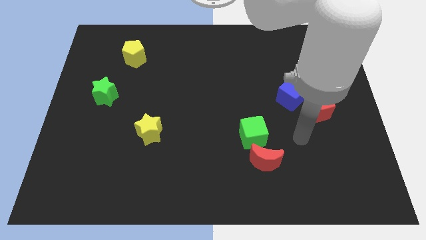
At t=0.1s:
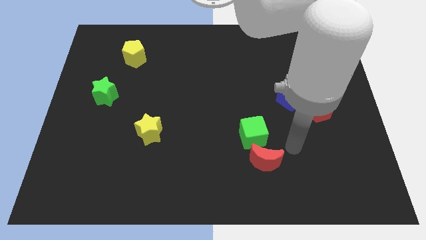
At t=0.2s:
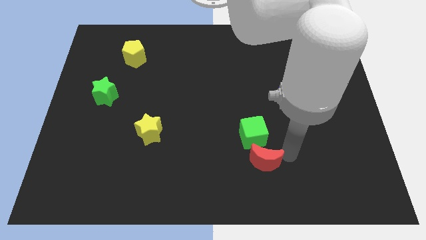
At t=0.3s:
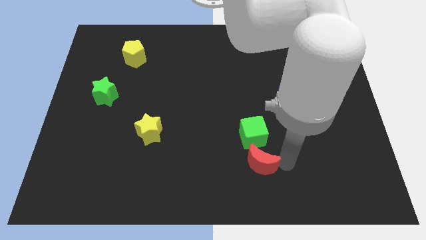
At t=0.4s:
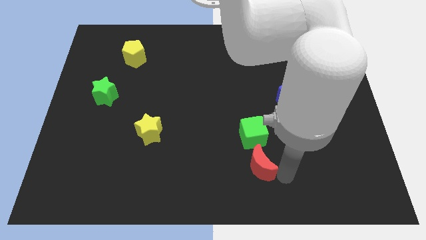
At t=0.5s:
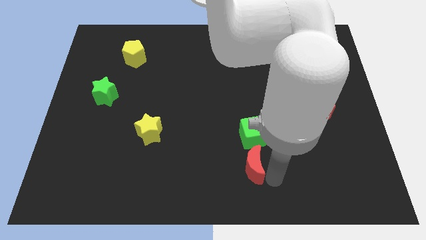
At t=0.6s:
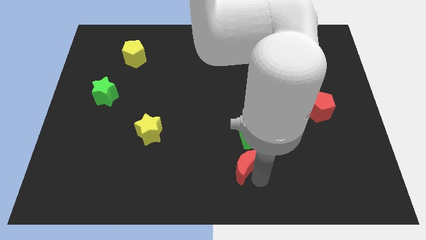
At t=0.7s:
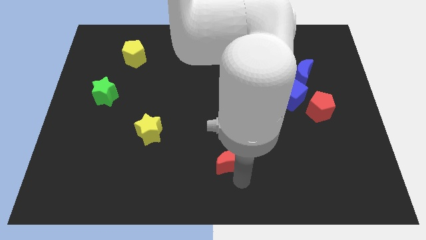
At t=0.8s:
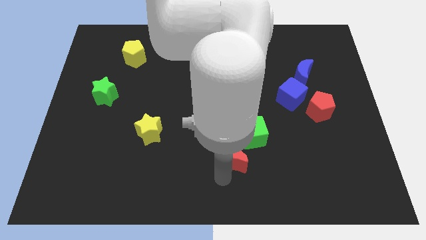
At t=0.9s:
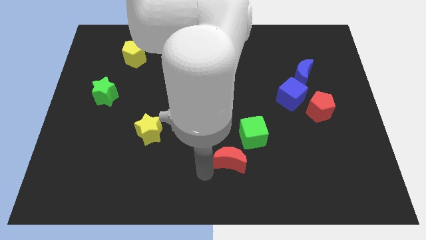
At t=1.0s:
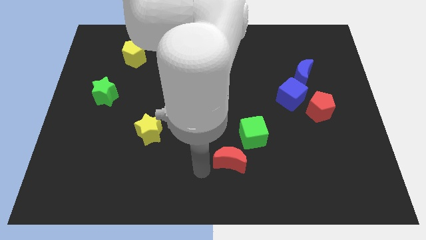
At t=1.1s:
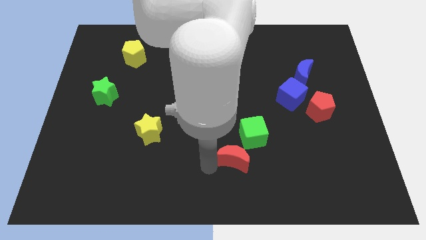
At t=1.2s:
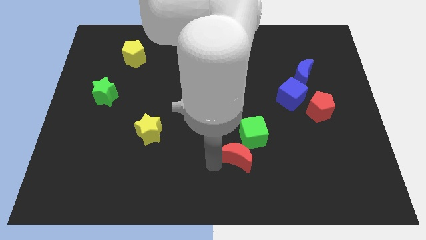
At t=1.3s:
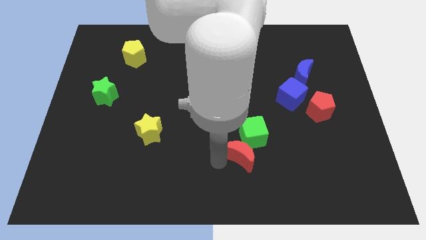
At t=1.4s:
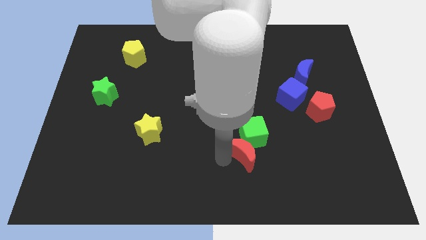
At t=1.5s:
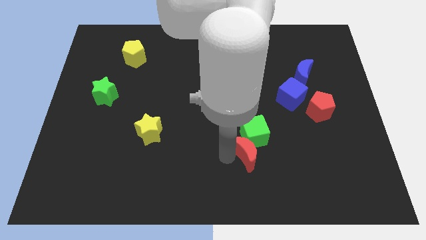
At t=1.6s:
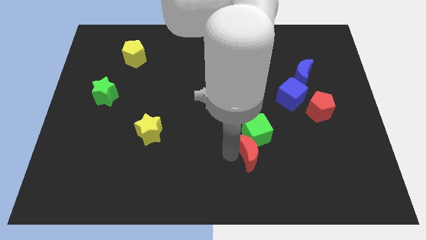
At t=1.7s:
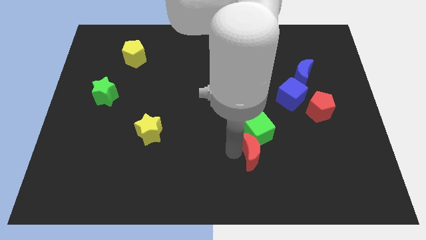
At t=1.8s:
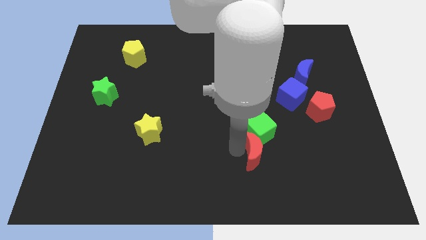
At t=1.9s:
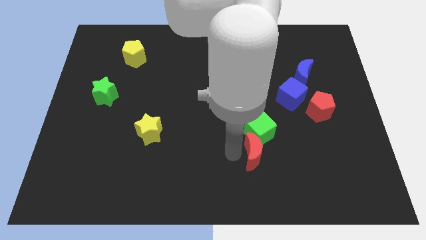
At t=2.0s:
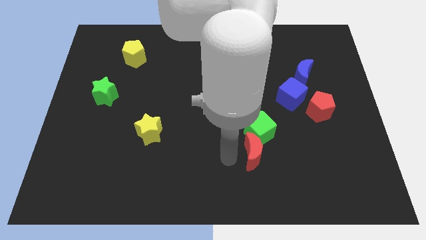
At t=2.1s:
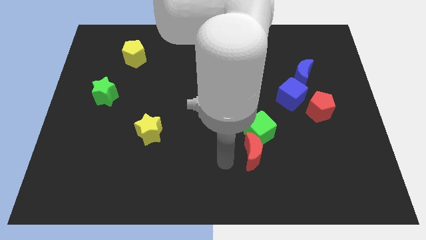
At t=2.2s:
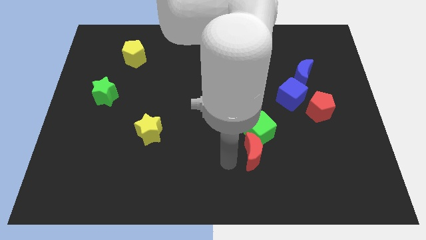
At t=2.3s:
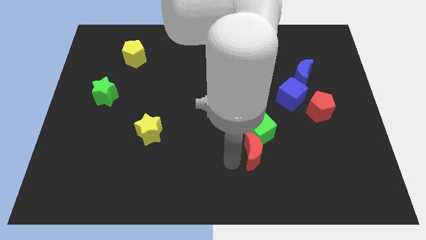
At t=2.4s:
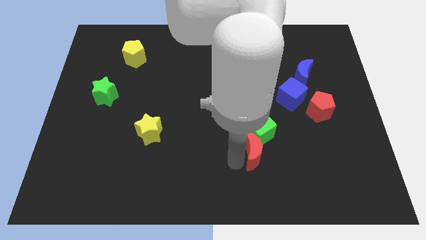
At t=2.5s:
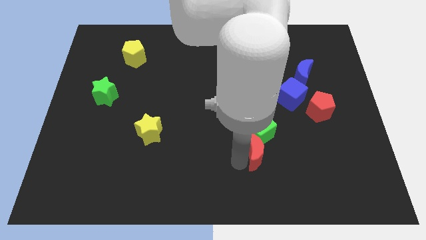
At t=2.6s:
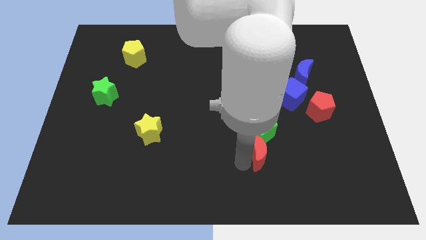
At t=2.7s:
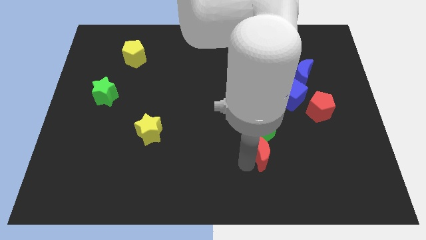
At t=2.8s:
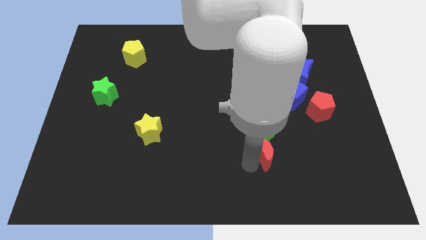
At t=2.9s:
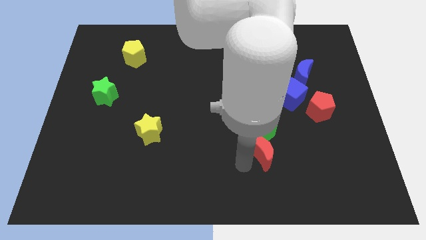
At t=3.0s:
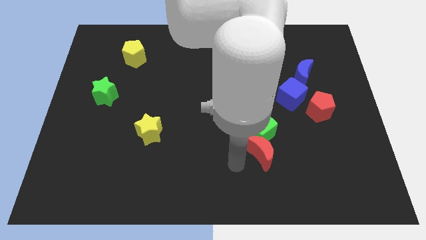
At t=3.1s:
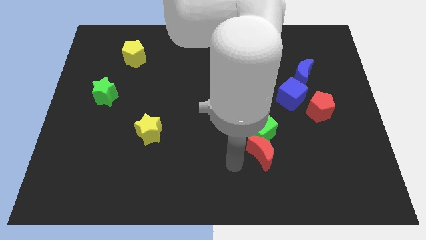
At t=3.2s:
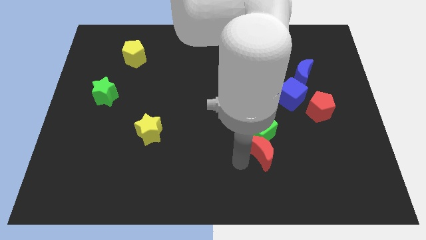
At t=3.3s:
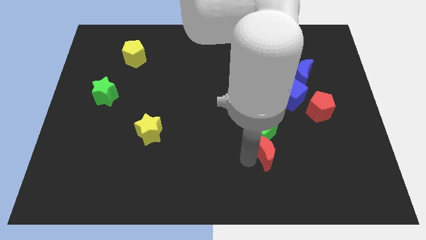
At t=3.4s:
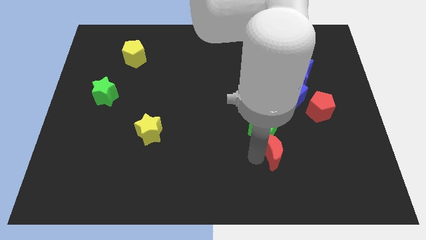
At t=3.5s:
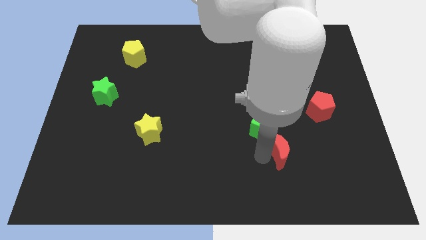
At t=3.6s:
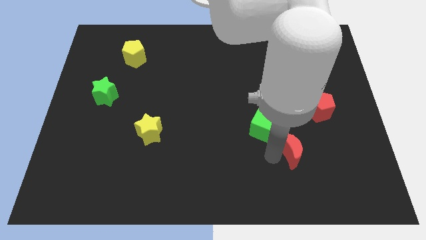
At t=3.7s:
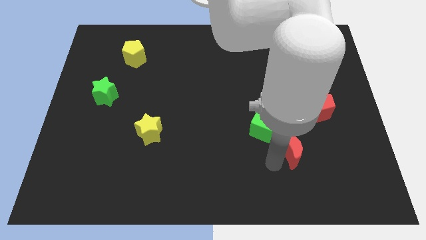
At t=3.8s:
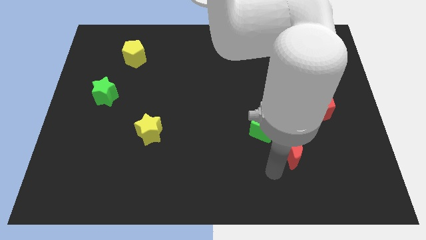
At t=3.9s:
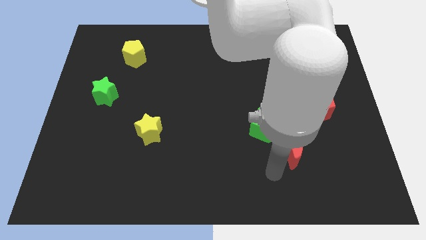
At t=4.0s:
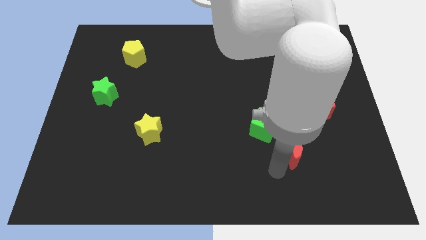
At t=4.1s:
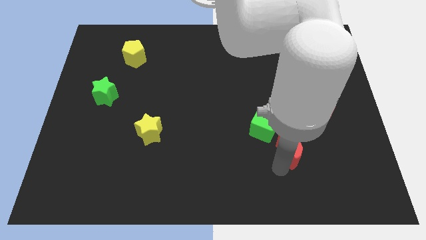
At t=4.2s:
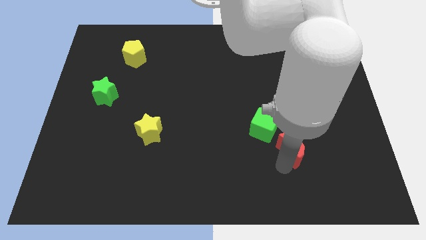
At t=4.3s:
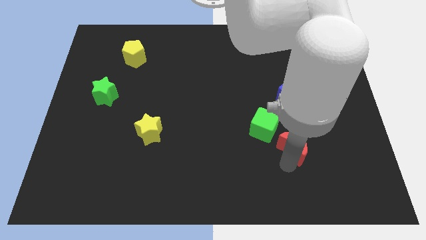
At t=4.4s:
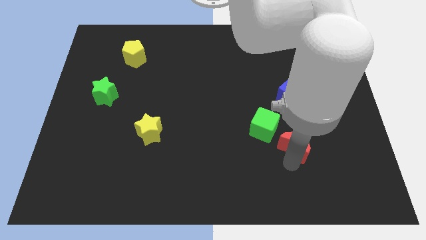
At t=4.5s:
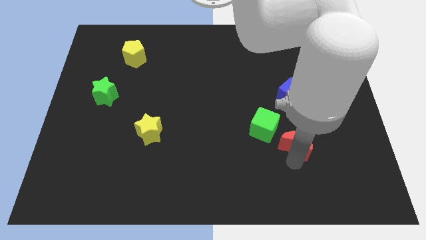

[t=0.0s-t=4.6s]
put the red moon to the right side of the green cube

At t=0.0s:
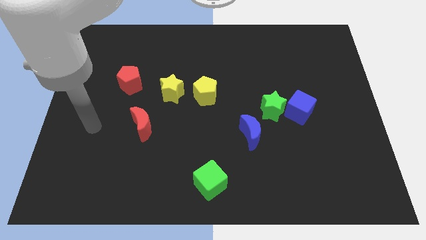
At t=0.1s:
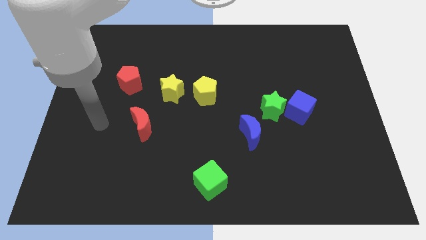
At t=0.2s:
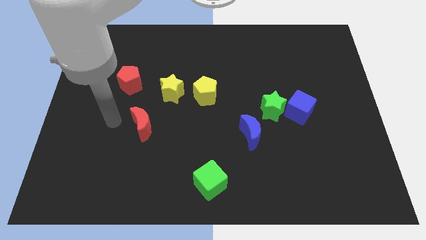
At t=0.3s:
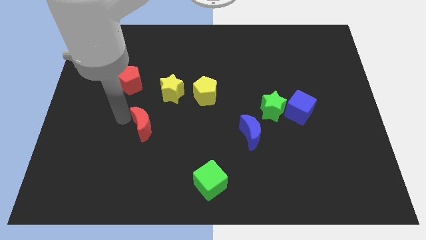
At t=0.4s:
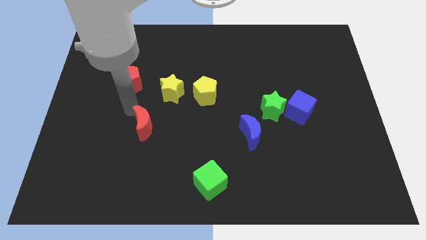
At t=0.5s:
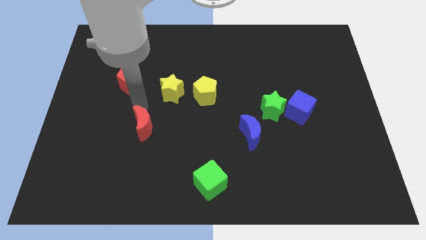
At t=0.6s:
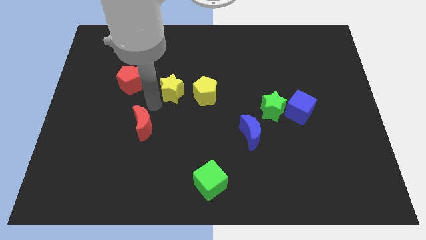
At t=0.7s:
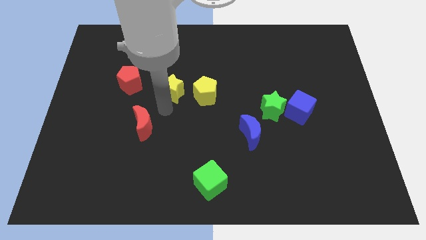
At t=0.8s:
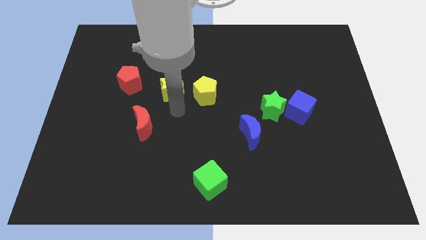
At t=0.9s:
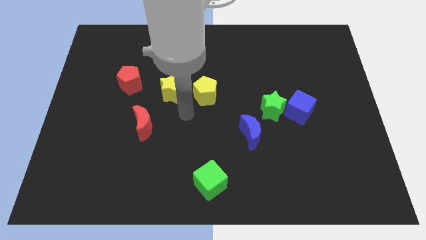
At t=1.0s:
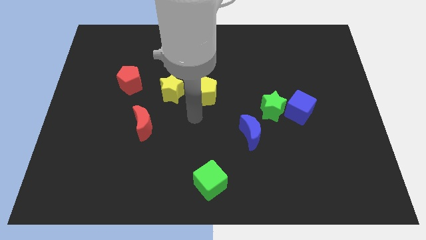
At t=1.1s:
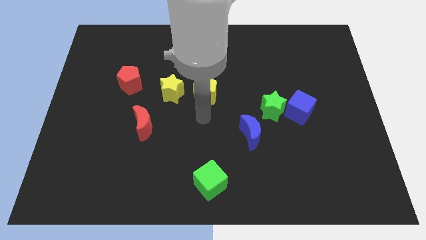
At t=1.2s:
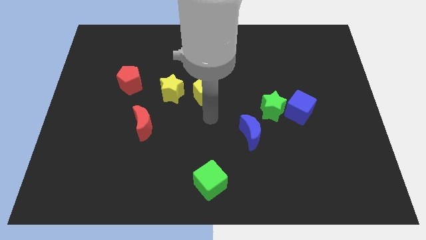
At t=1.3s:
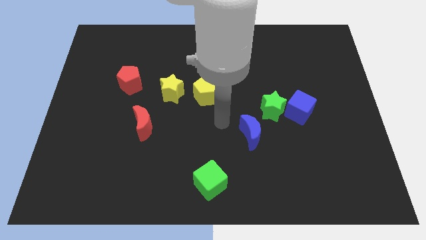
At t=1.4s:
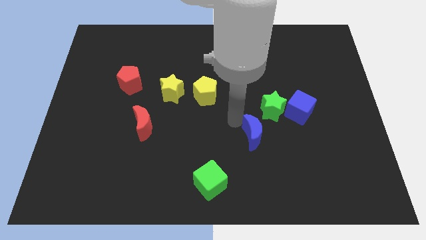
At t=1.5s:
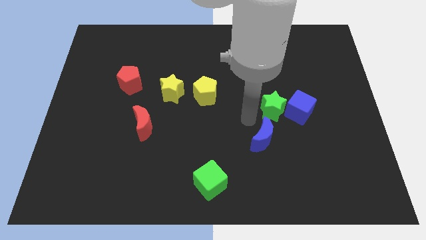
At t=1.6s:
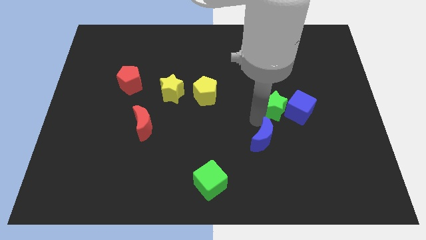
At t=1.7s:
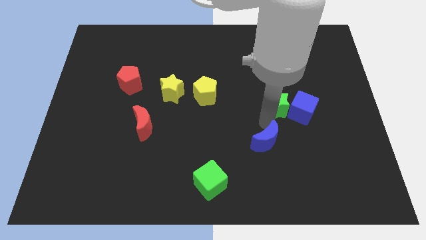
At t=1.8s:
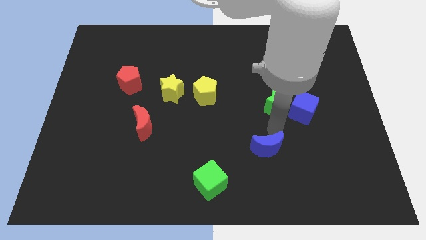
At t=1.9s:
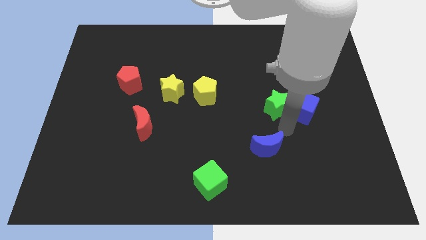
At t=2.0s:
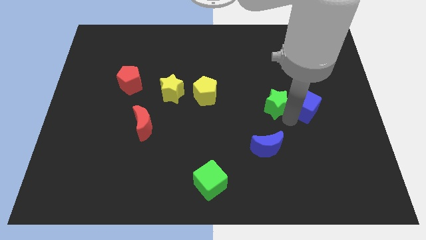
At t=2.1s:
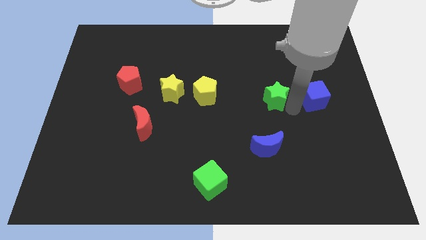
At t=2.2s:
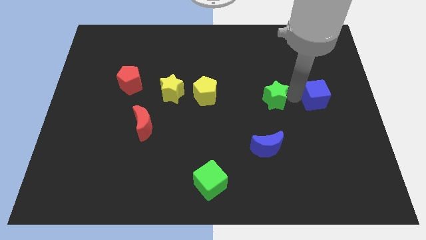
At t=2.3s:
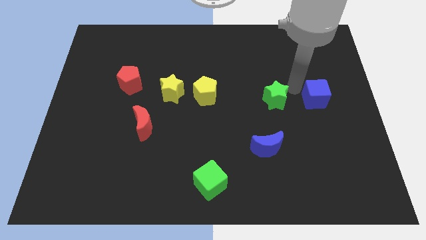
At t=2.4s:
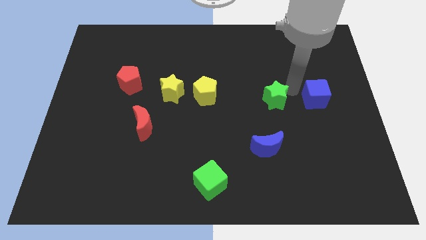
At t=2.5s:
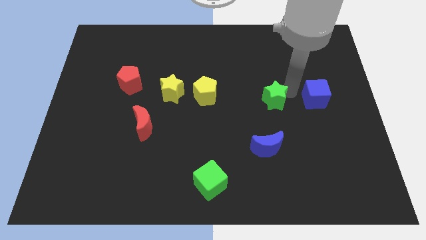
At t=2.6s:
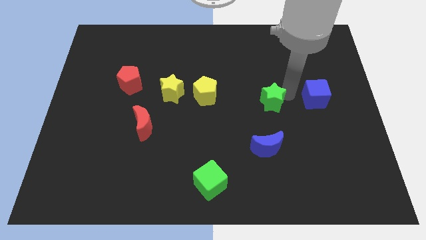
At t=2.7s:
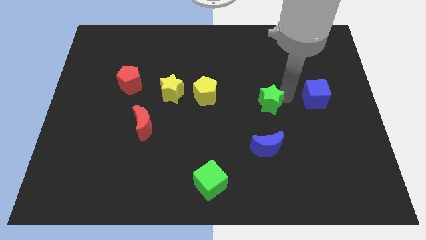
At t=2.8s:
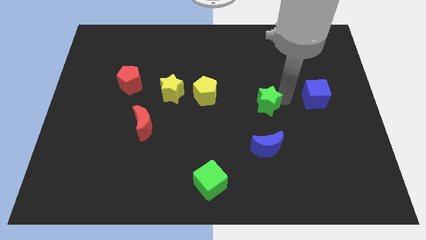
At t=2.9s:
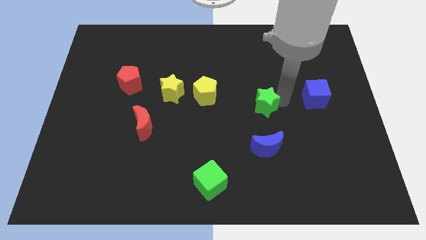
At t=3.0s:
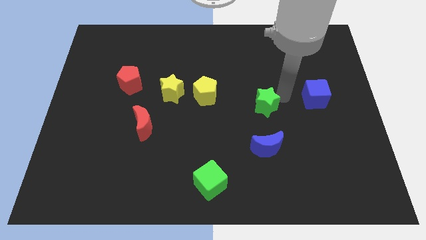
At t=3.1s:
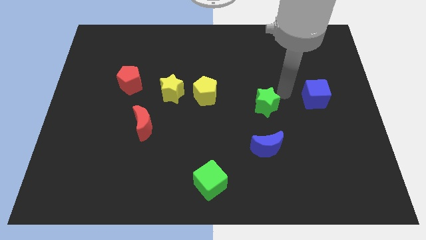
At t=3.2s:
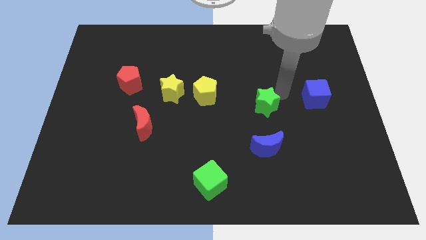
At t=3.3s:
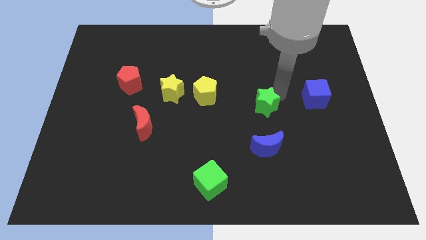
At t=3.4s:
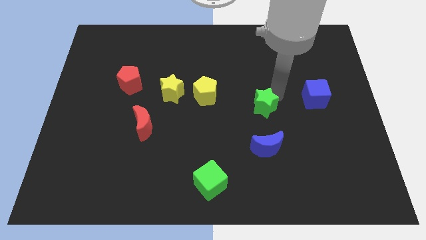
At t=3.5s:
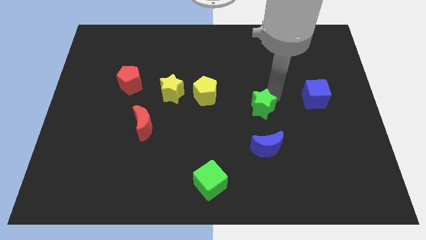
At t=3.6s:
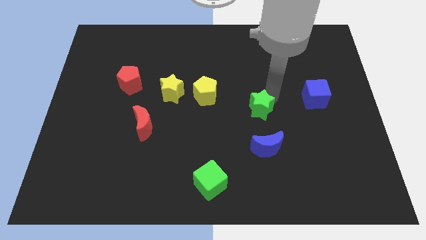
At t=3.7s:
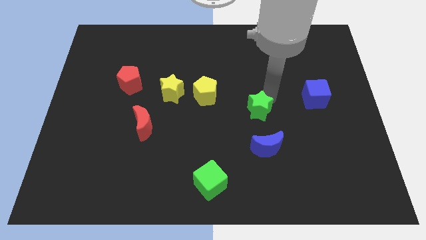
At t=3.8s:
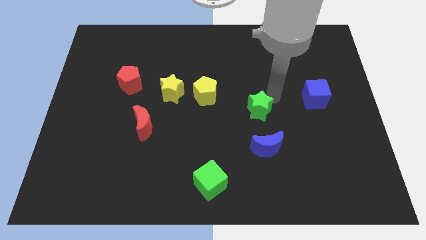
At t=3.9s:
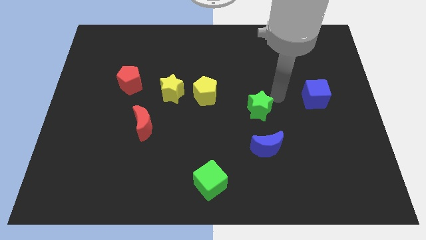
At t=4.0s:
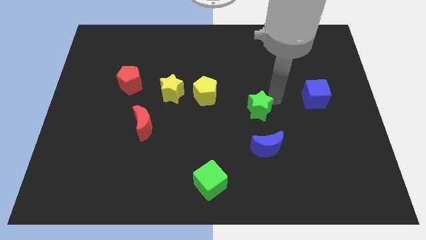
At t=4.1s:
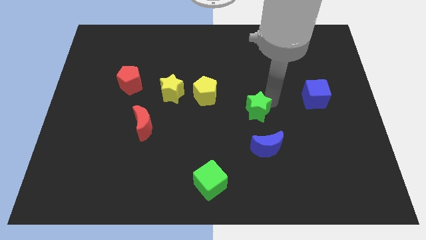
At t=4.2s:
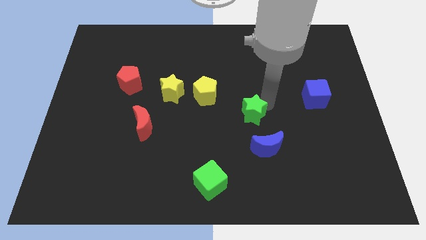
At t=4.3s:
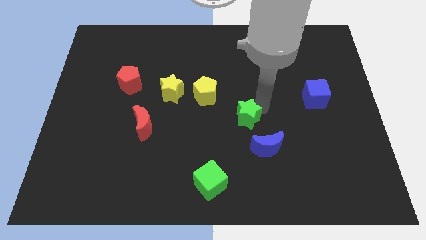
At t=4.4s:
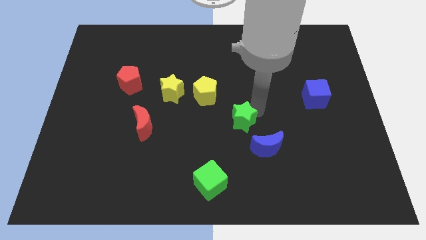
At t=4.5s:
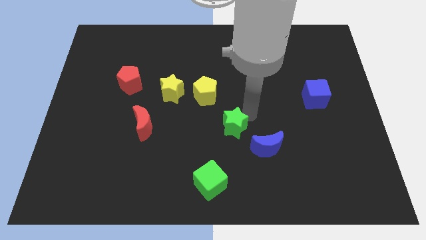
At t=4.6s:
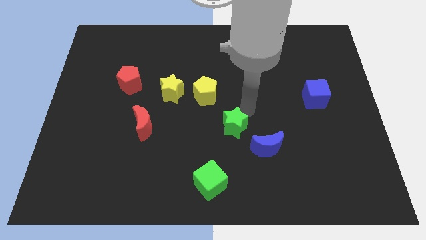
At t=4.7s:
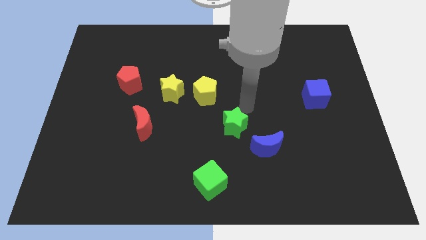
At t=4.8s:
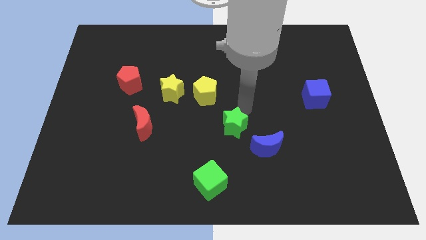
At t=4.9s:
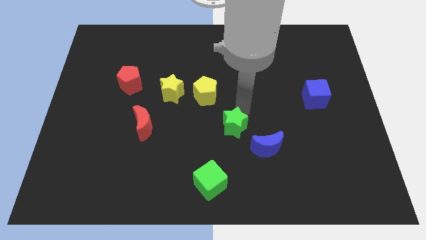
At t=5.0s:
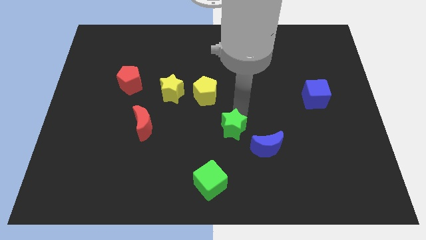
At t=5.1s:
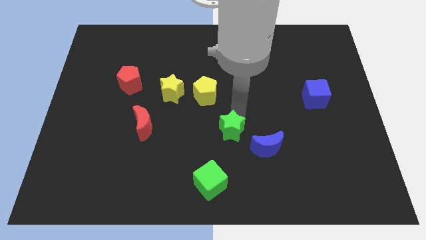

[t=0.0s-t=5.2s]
push the green star to the left of the blue moon
